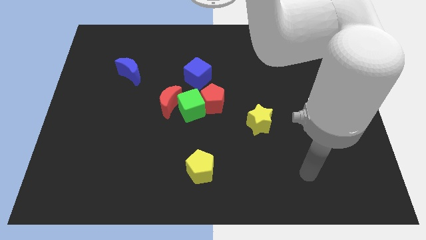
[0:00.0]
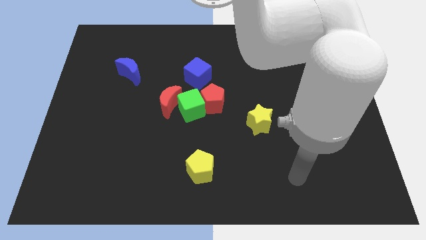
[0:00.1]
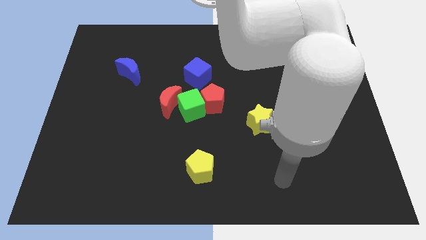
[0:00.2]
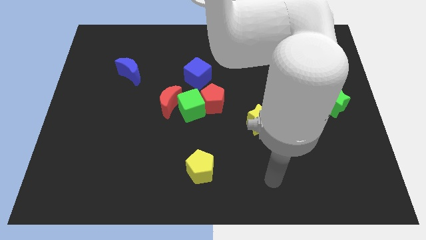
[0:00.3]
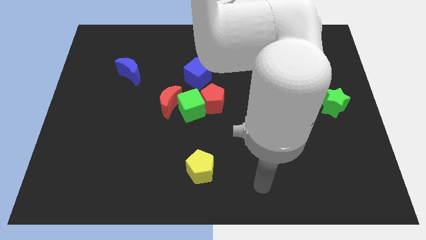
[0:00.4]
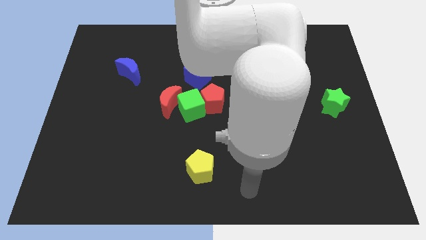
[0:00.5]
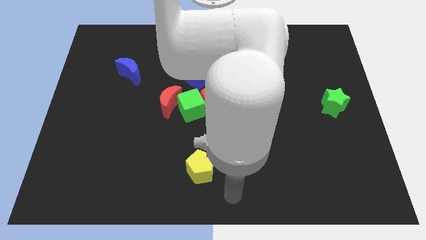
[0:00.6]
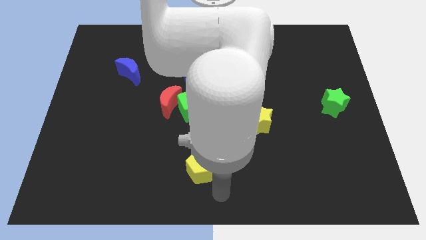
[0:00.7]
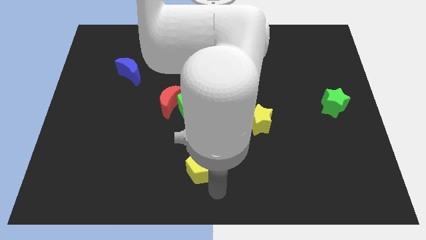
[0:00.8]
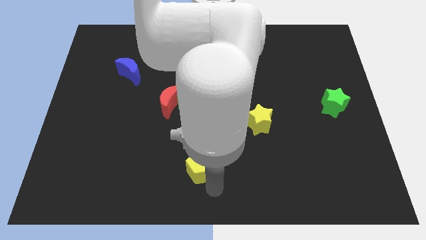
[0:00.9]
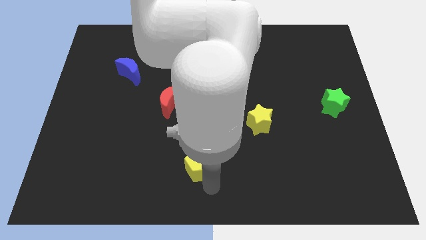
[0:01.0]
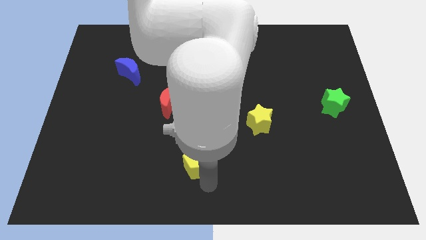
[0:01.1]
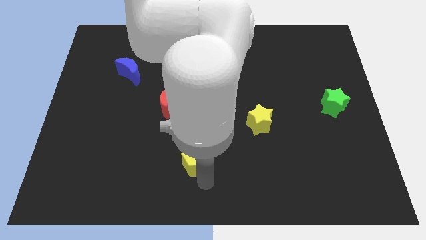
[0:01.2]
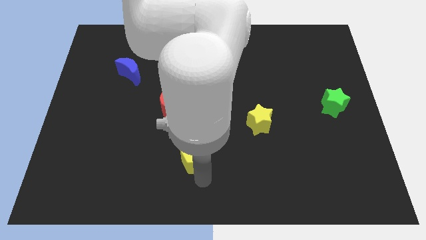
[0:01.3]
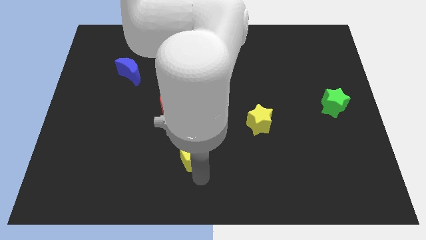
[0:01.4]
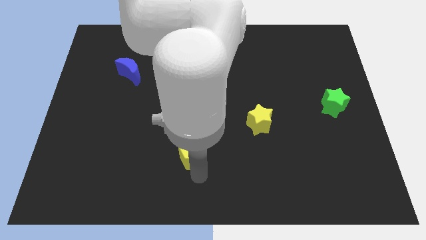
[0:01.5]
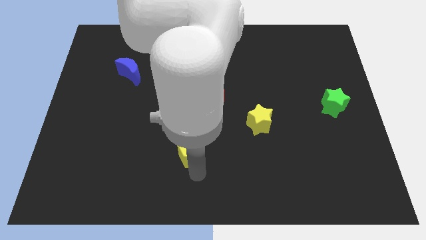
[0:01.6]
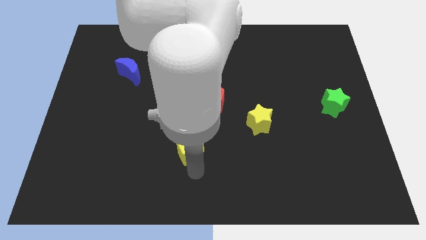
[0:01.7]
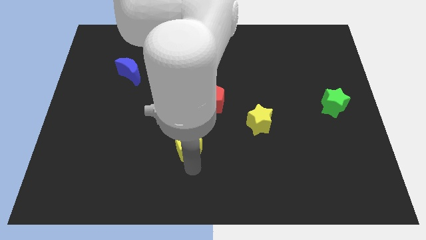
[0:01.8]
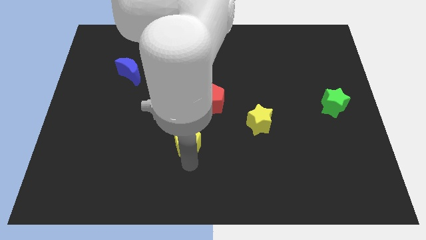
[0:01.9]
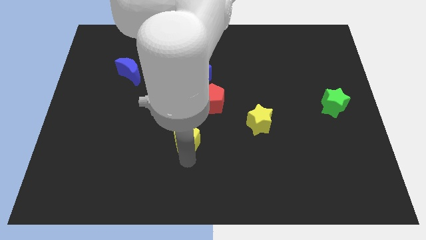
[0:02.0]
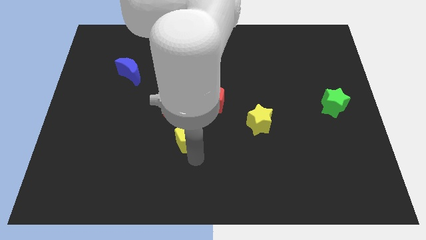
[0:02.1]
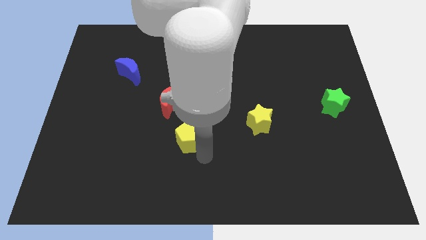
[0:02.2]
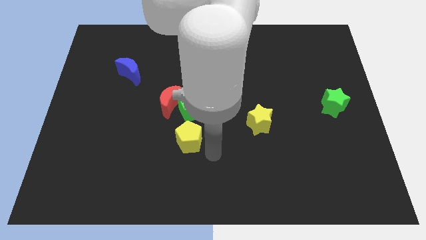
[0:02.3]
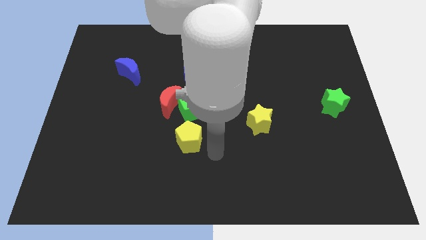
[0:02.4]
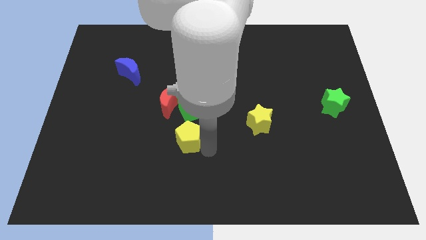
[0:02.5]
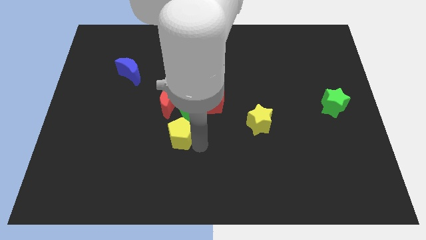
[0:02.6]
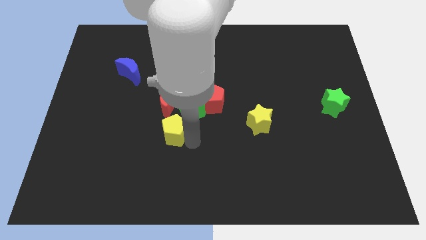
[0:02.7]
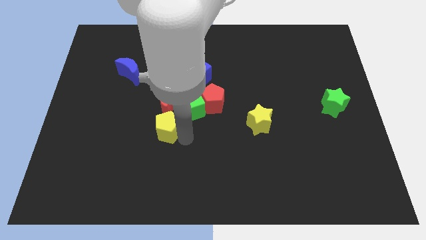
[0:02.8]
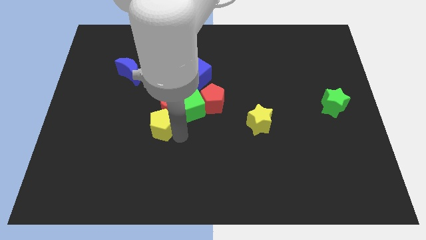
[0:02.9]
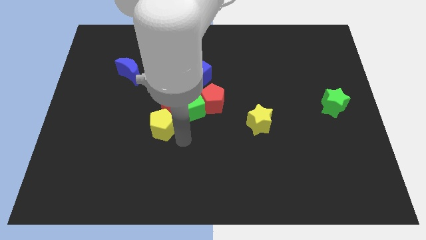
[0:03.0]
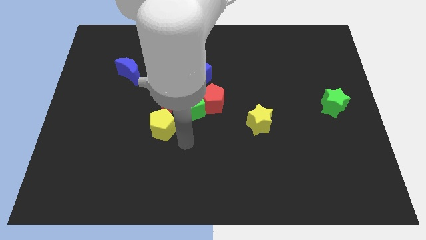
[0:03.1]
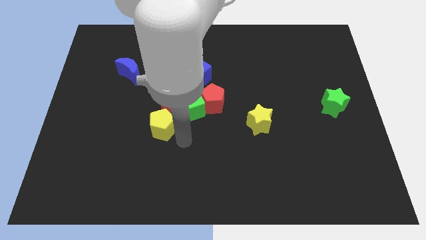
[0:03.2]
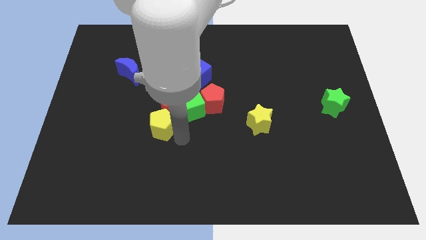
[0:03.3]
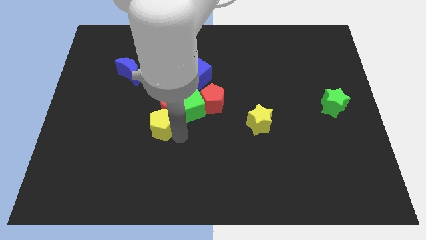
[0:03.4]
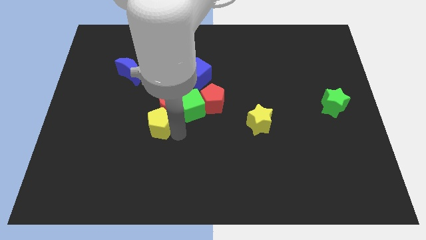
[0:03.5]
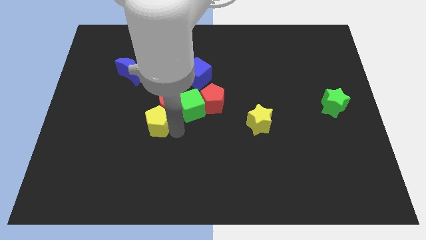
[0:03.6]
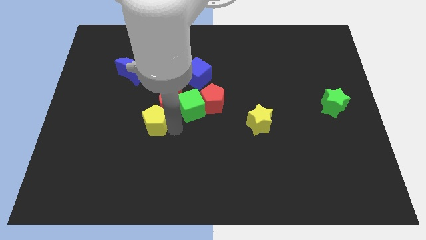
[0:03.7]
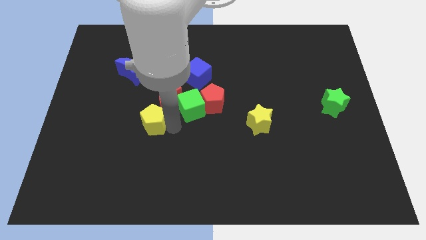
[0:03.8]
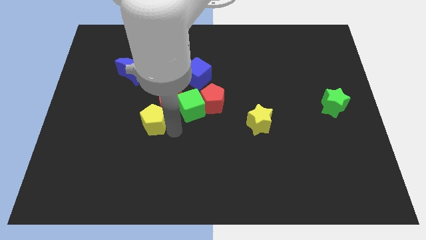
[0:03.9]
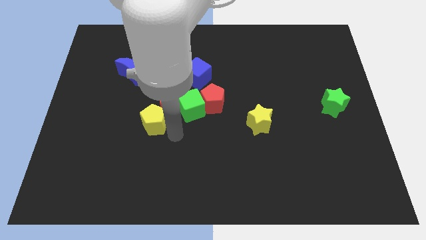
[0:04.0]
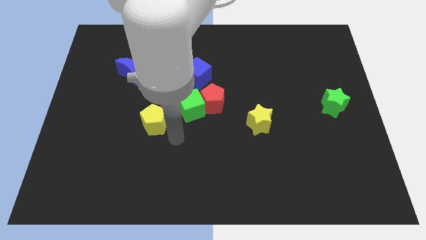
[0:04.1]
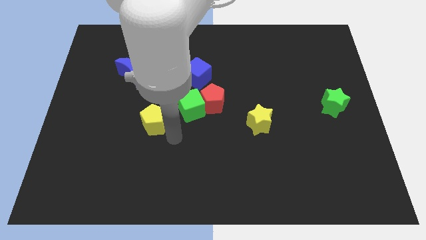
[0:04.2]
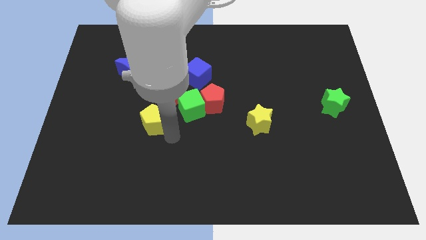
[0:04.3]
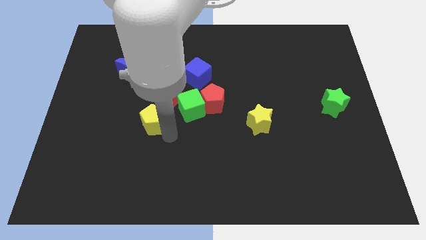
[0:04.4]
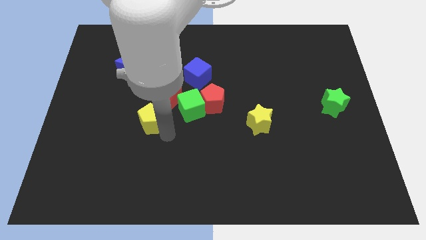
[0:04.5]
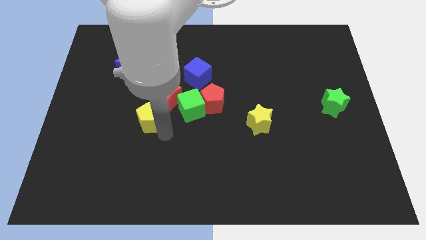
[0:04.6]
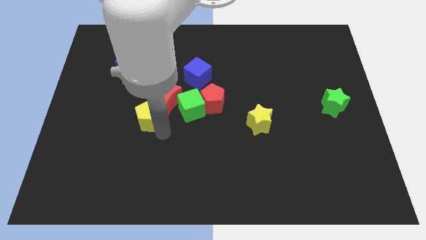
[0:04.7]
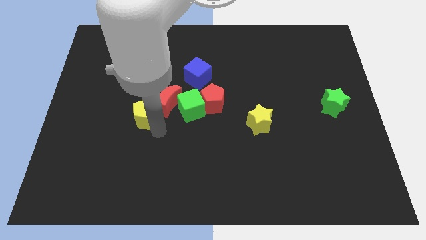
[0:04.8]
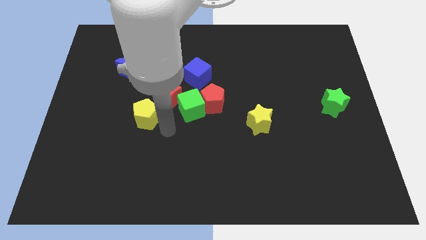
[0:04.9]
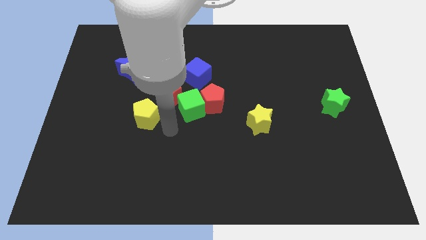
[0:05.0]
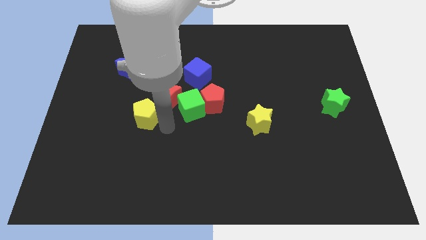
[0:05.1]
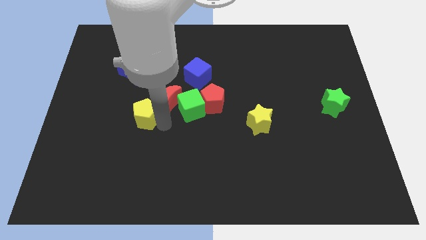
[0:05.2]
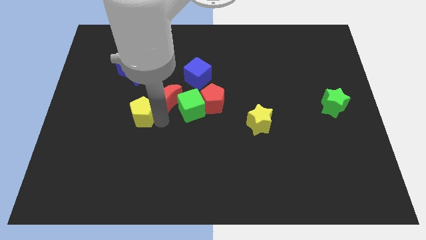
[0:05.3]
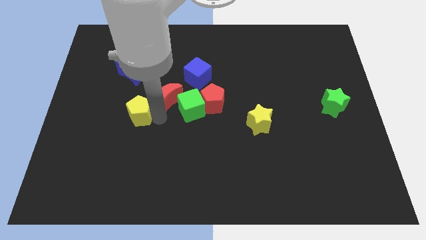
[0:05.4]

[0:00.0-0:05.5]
move the yellow pentagon diagonally upwards and to the left

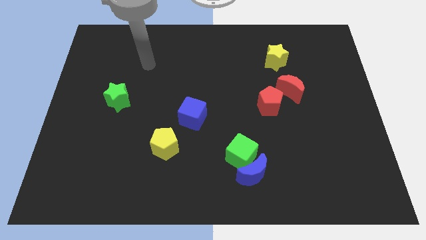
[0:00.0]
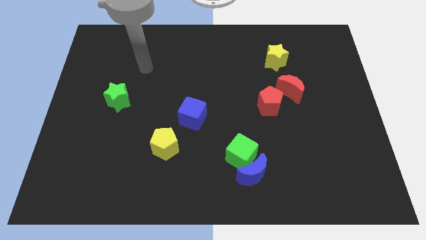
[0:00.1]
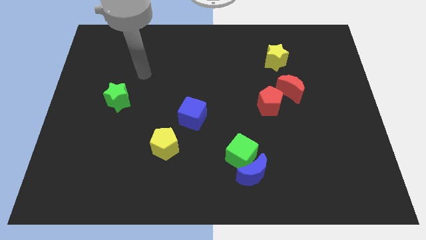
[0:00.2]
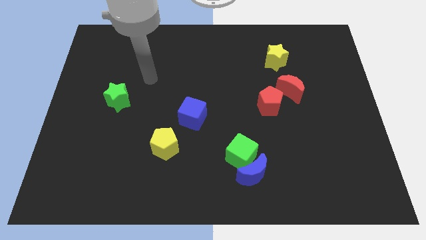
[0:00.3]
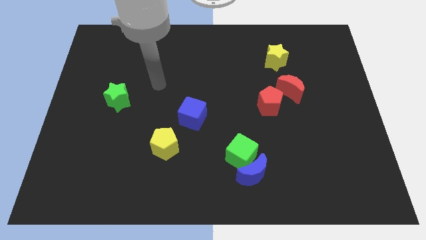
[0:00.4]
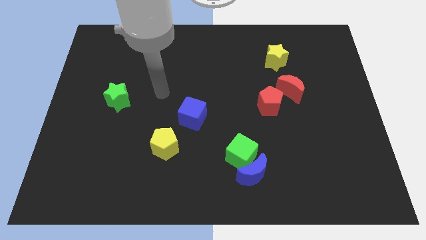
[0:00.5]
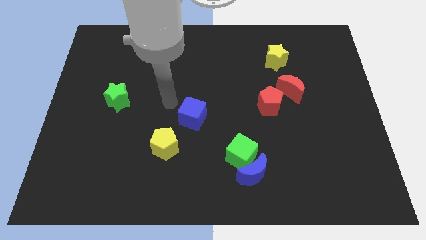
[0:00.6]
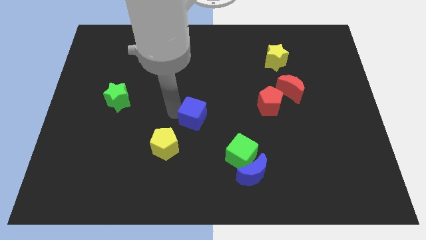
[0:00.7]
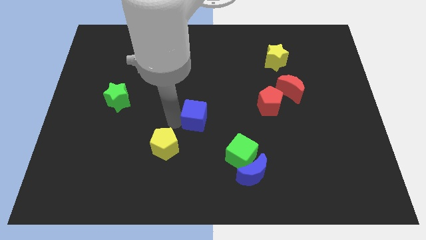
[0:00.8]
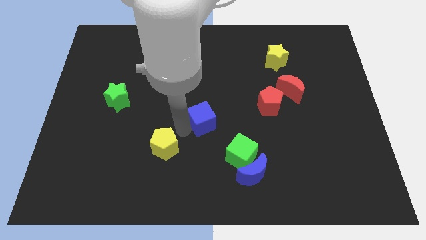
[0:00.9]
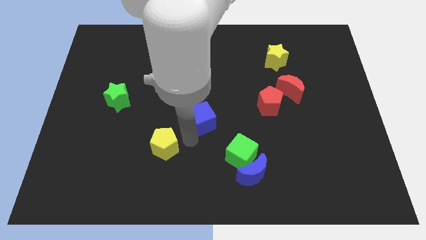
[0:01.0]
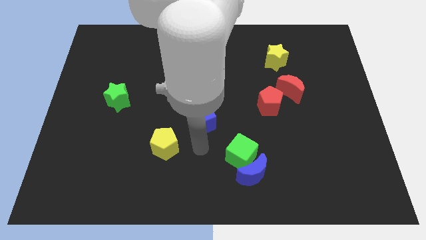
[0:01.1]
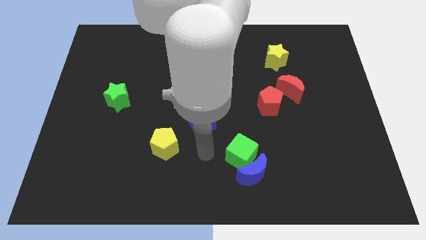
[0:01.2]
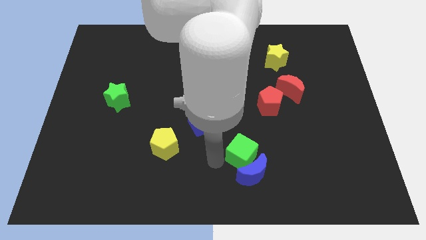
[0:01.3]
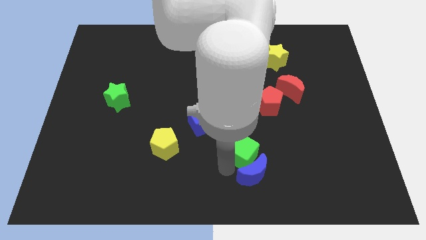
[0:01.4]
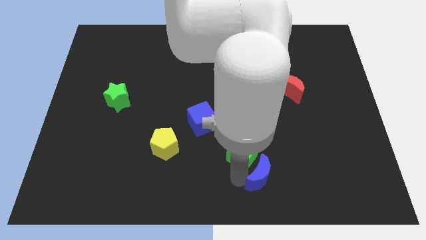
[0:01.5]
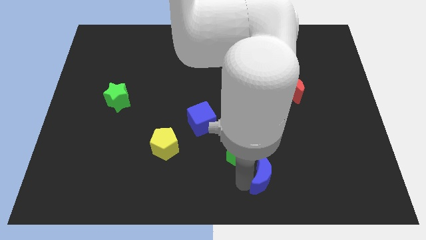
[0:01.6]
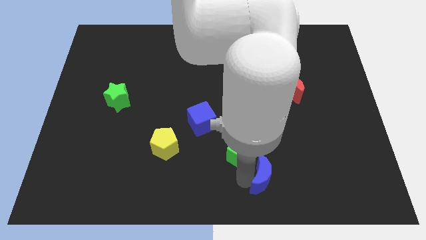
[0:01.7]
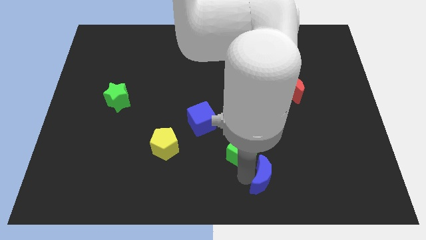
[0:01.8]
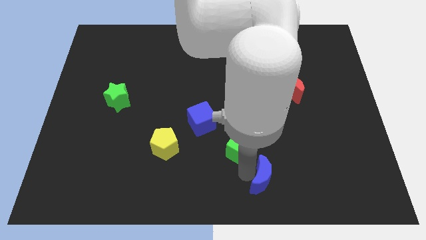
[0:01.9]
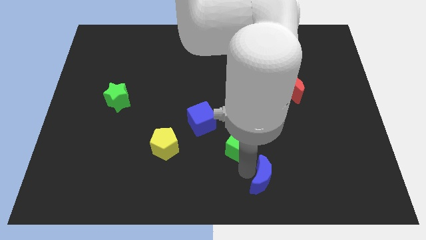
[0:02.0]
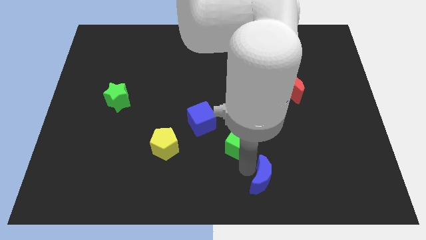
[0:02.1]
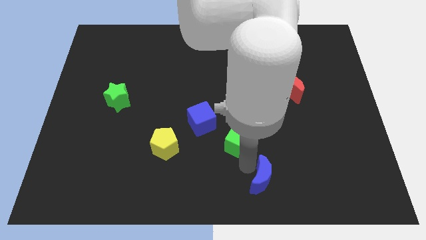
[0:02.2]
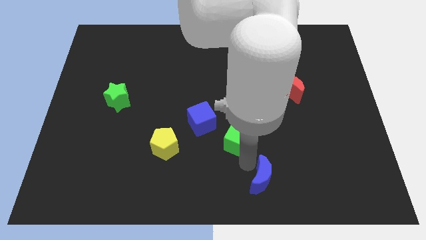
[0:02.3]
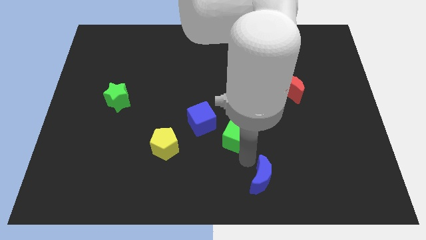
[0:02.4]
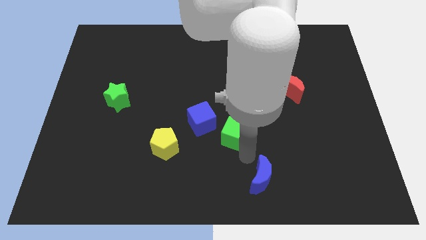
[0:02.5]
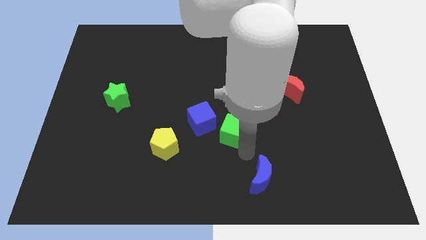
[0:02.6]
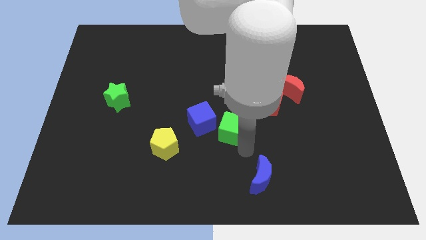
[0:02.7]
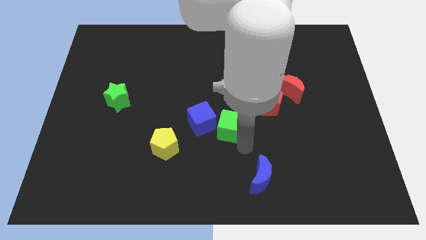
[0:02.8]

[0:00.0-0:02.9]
slide the green cube upwards a little
